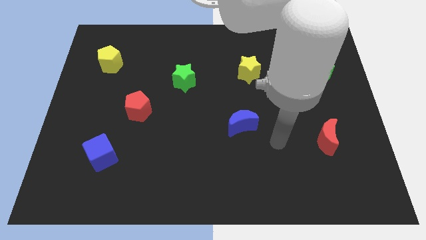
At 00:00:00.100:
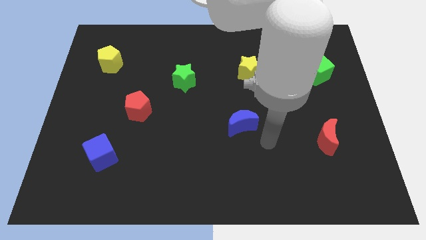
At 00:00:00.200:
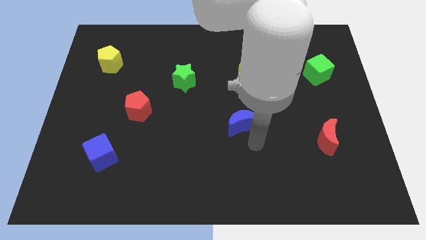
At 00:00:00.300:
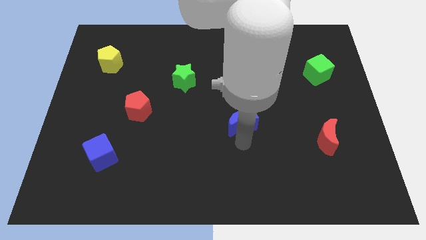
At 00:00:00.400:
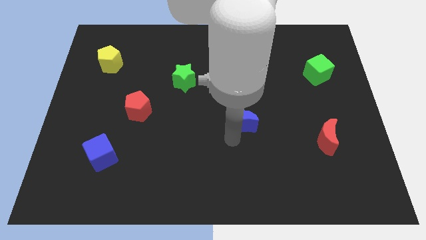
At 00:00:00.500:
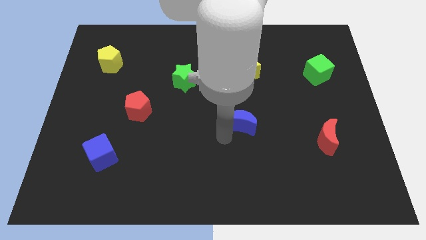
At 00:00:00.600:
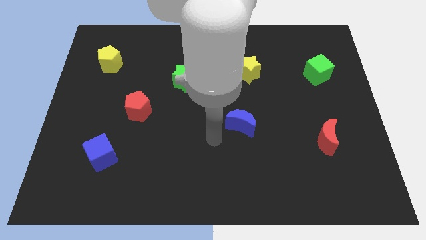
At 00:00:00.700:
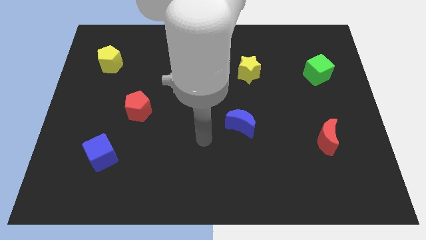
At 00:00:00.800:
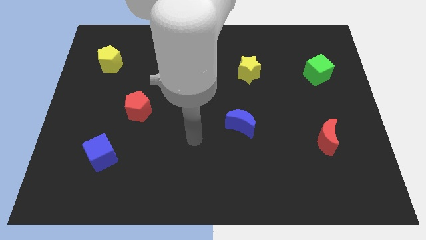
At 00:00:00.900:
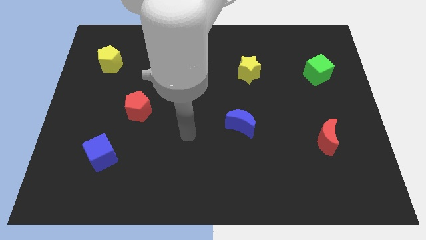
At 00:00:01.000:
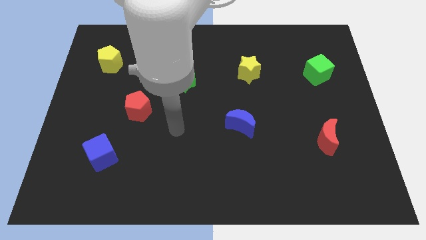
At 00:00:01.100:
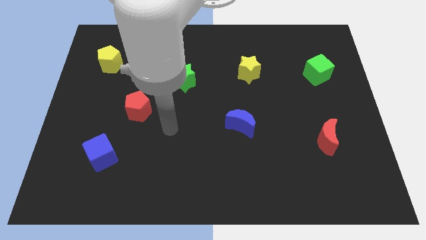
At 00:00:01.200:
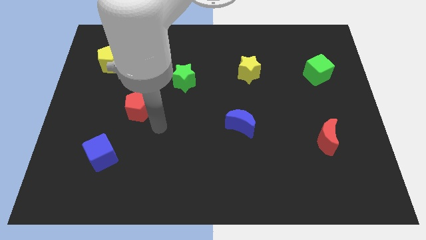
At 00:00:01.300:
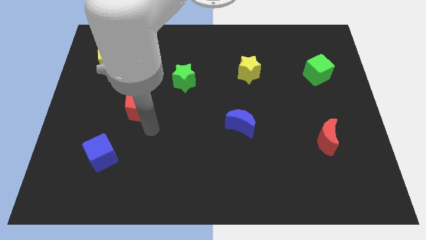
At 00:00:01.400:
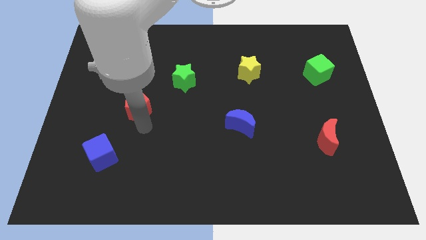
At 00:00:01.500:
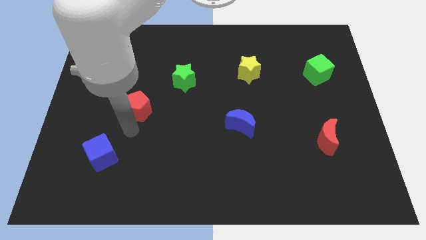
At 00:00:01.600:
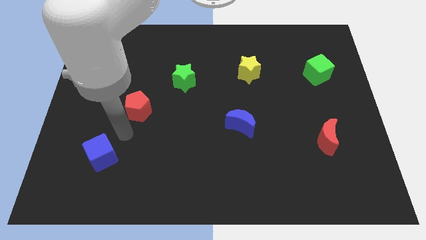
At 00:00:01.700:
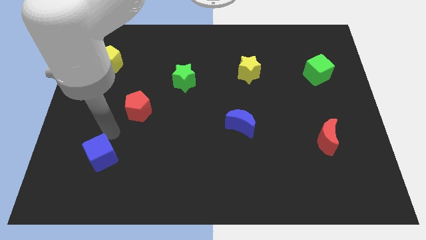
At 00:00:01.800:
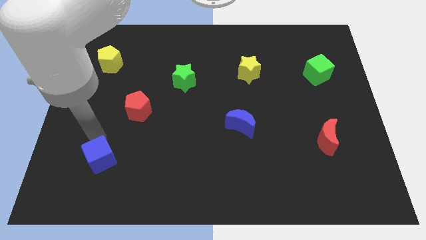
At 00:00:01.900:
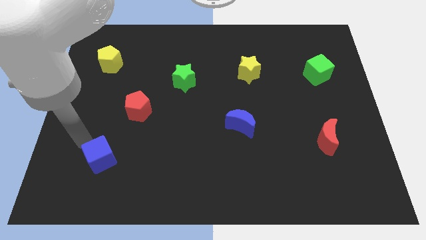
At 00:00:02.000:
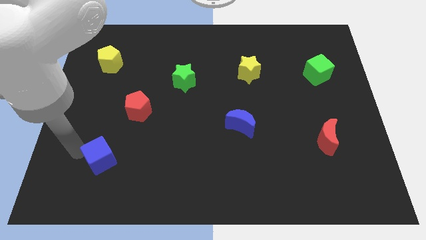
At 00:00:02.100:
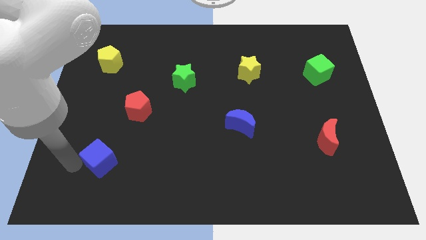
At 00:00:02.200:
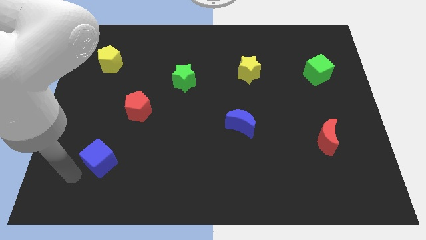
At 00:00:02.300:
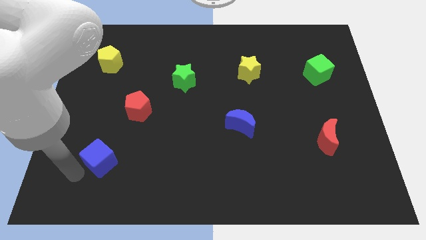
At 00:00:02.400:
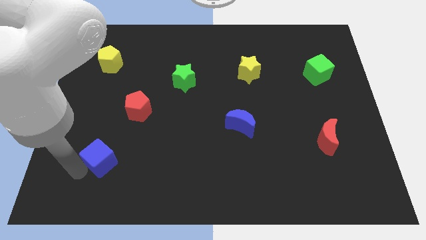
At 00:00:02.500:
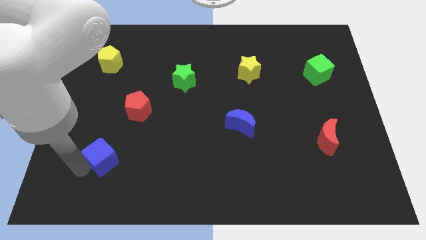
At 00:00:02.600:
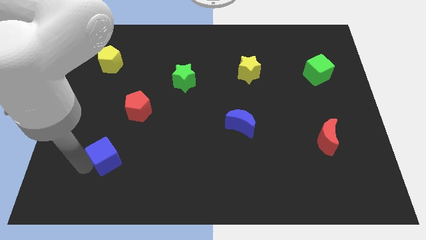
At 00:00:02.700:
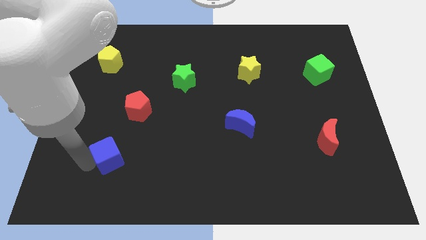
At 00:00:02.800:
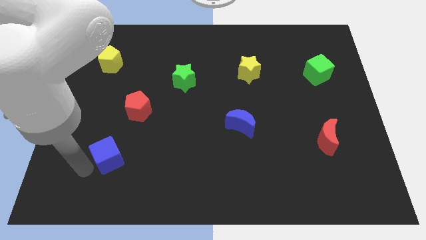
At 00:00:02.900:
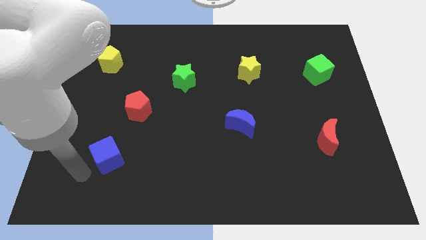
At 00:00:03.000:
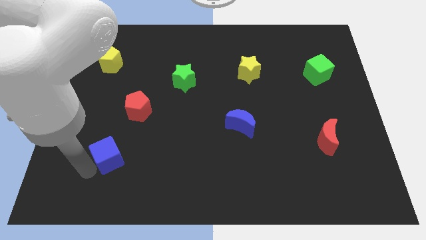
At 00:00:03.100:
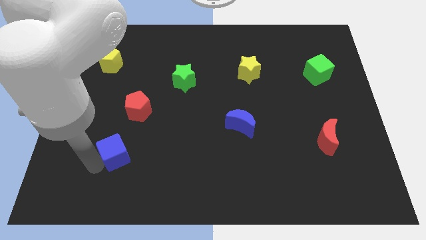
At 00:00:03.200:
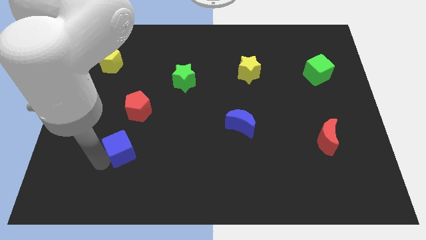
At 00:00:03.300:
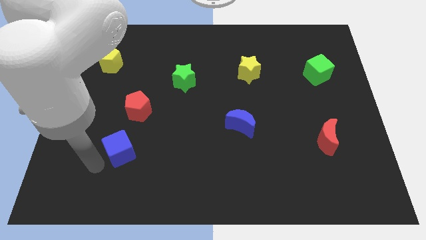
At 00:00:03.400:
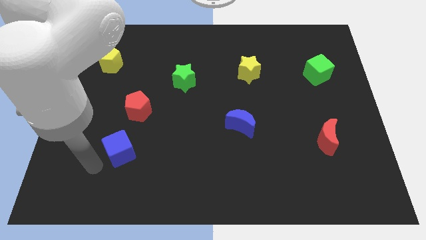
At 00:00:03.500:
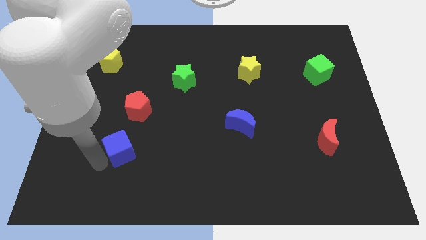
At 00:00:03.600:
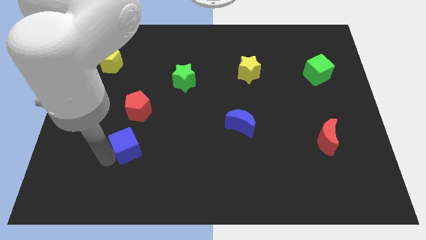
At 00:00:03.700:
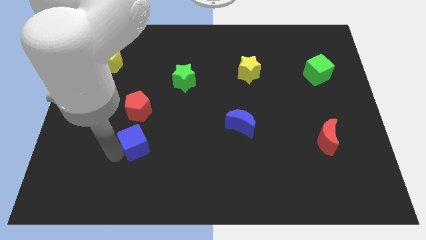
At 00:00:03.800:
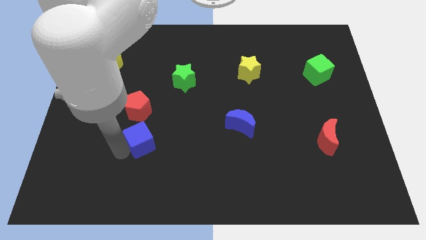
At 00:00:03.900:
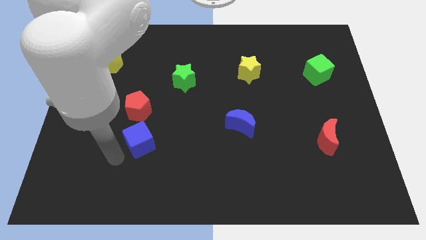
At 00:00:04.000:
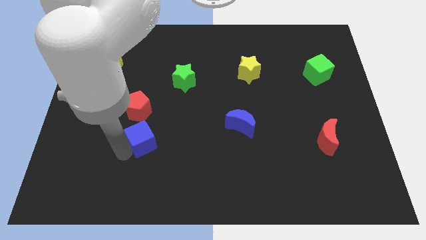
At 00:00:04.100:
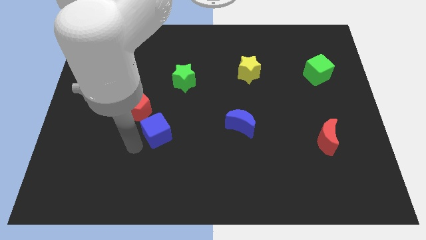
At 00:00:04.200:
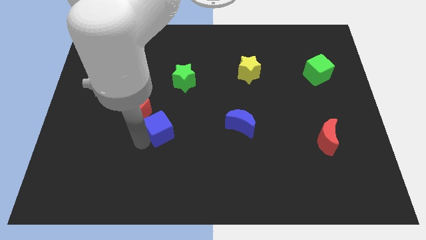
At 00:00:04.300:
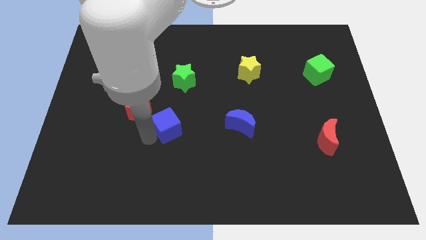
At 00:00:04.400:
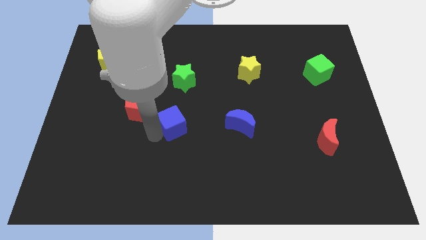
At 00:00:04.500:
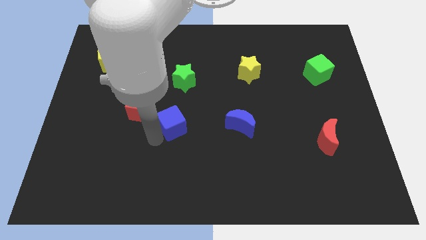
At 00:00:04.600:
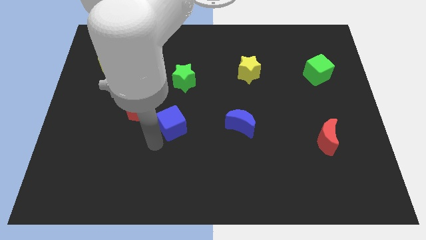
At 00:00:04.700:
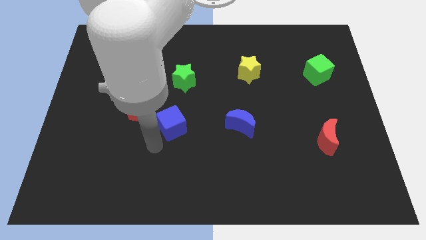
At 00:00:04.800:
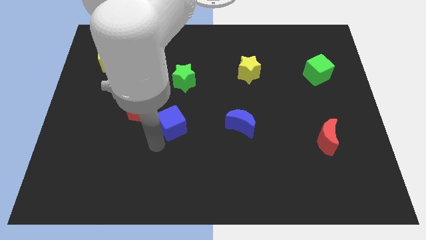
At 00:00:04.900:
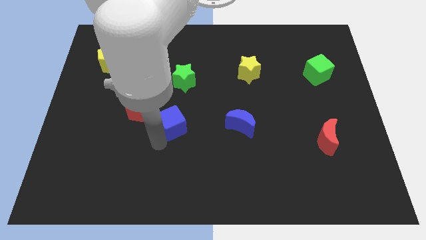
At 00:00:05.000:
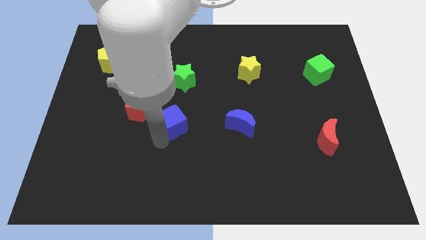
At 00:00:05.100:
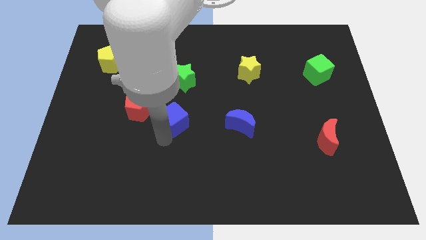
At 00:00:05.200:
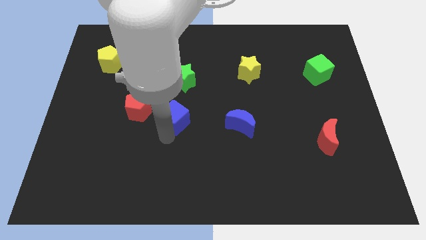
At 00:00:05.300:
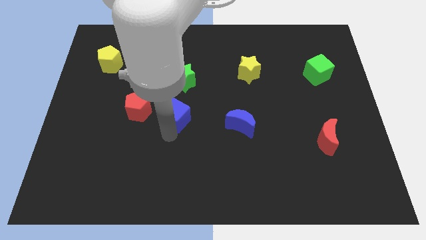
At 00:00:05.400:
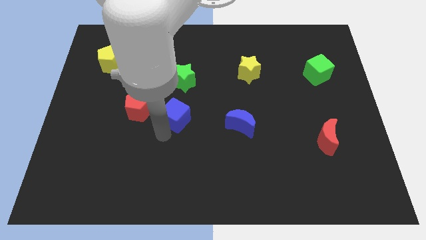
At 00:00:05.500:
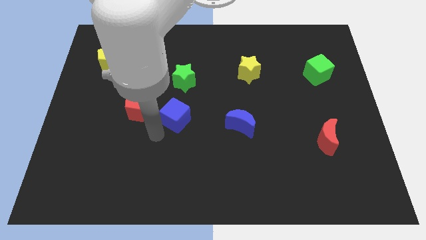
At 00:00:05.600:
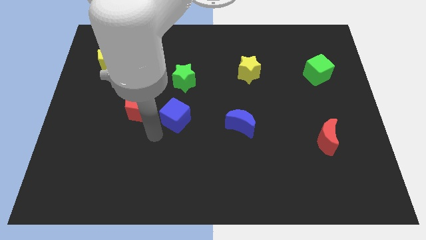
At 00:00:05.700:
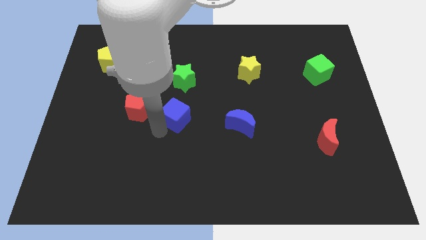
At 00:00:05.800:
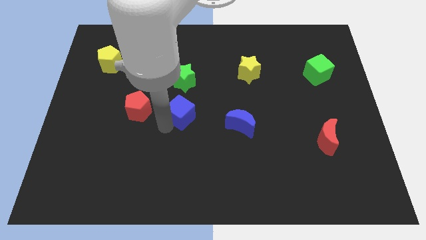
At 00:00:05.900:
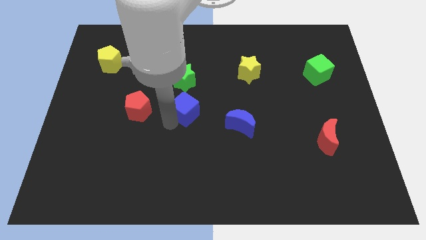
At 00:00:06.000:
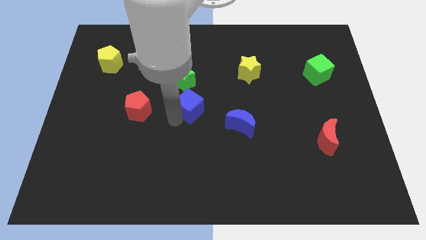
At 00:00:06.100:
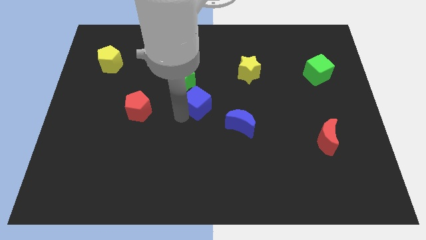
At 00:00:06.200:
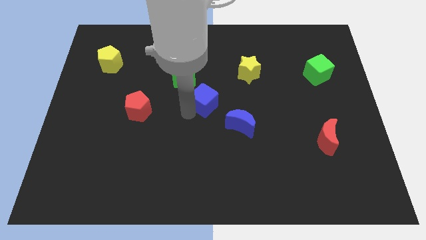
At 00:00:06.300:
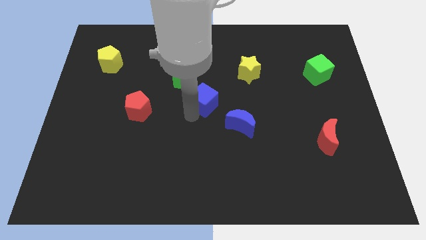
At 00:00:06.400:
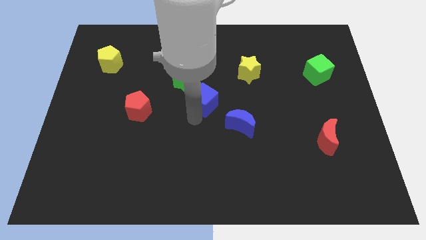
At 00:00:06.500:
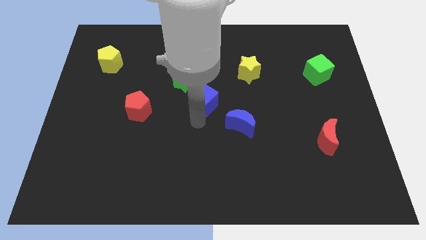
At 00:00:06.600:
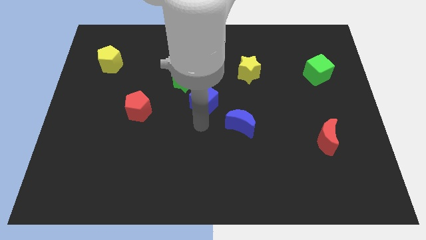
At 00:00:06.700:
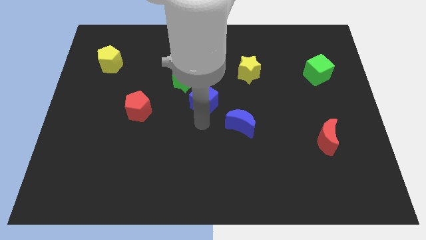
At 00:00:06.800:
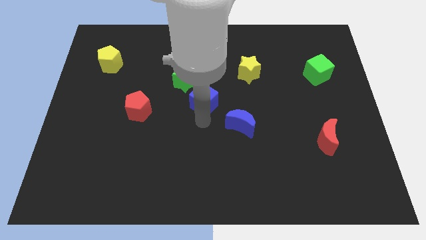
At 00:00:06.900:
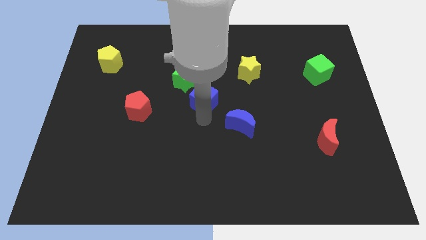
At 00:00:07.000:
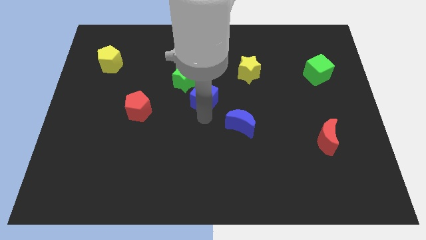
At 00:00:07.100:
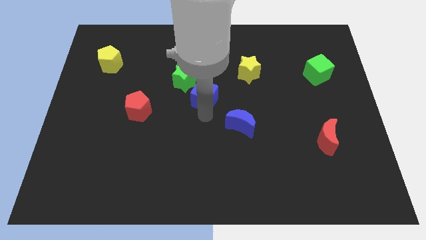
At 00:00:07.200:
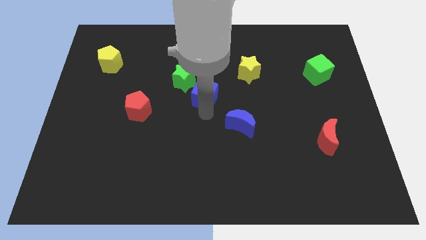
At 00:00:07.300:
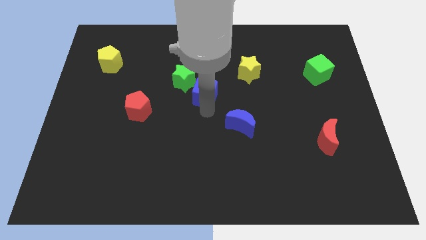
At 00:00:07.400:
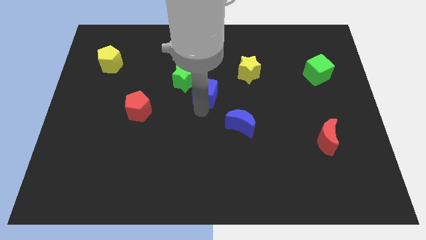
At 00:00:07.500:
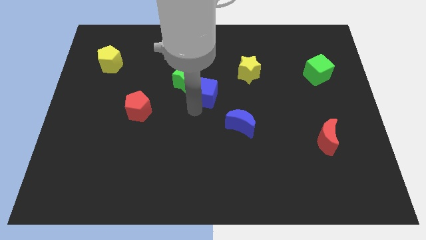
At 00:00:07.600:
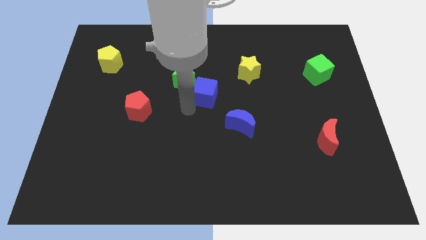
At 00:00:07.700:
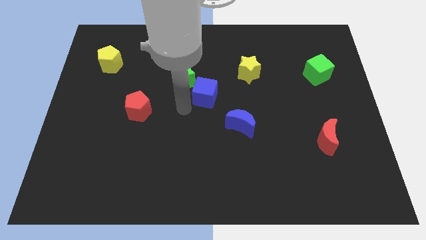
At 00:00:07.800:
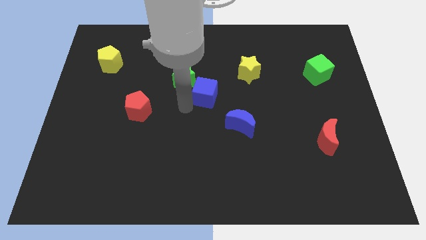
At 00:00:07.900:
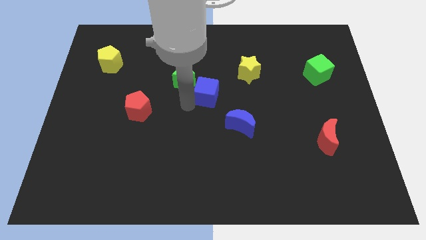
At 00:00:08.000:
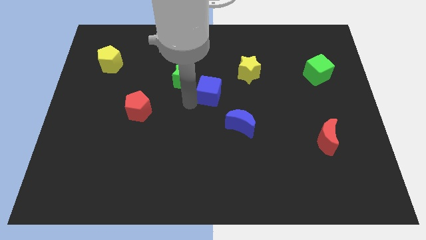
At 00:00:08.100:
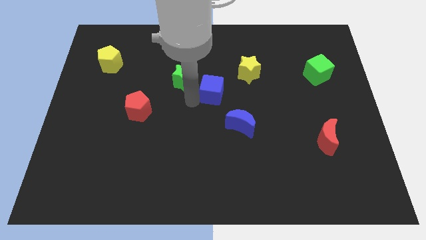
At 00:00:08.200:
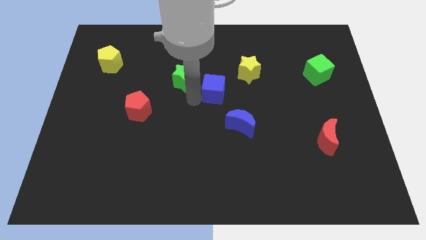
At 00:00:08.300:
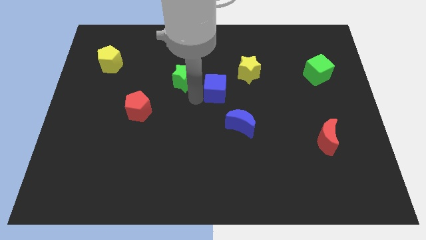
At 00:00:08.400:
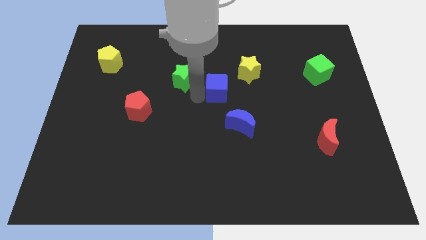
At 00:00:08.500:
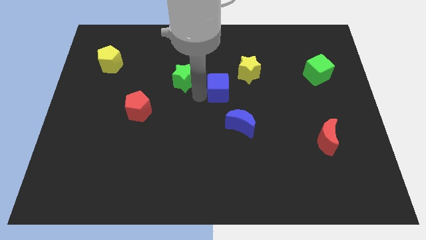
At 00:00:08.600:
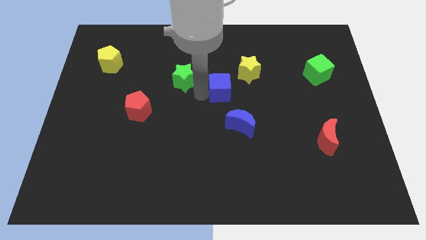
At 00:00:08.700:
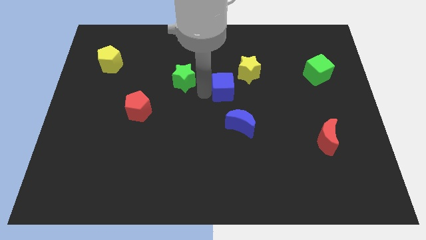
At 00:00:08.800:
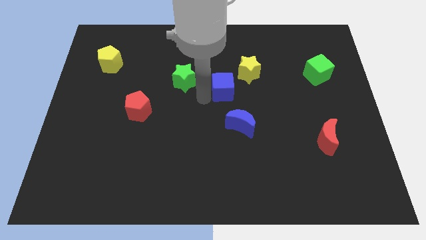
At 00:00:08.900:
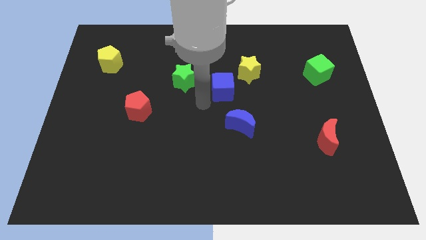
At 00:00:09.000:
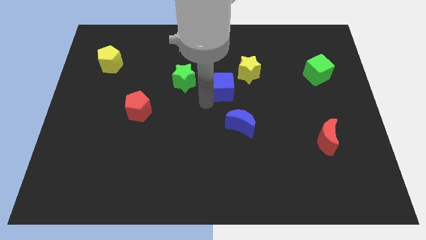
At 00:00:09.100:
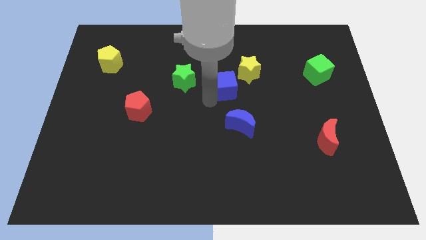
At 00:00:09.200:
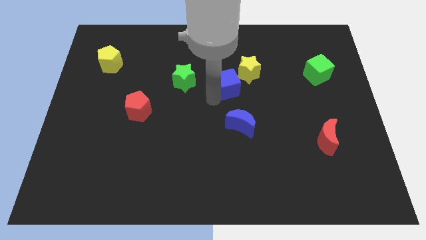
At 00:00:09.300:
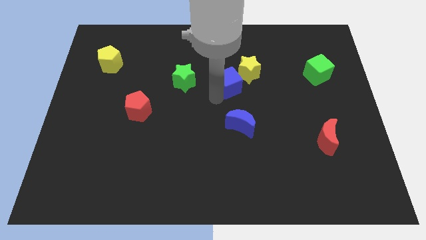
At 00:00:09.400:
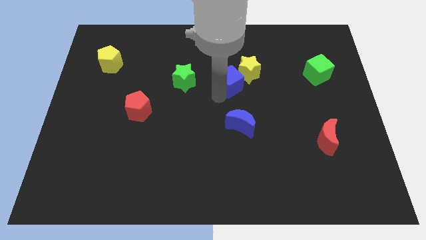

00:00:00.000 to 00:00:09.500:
put the blue cube towards the yellow star
